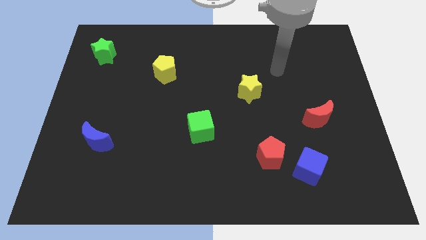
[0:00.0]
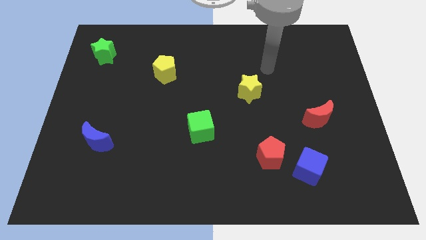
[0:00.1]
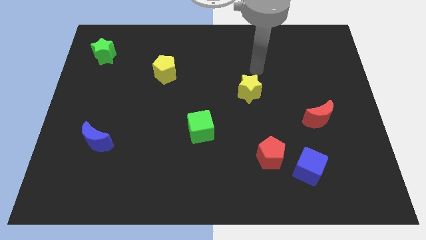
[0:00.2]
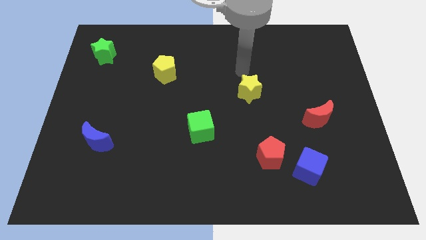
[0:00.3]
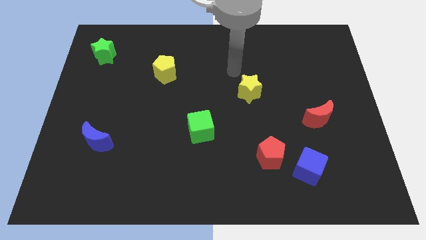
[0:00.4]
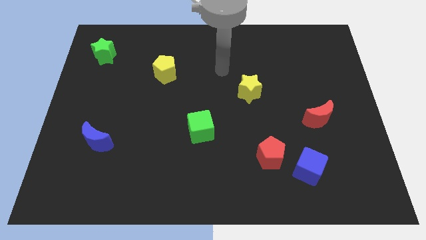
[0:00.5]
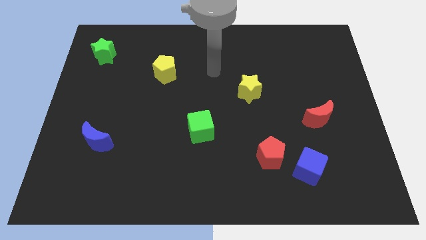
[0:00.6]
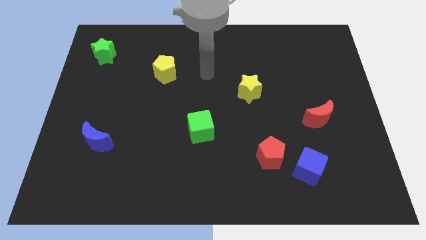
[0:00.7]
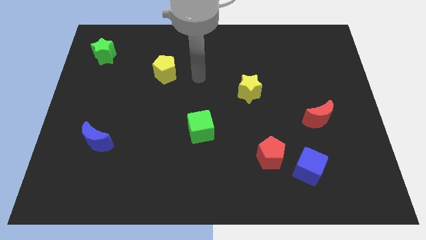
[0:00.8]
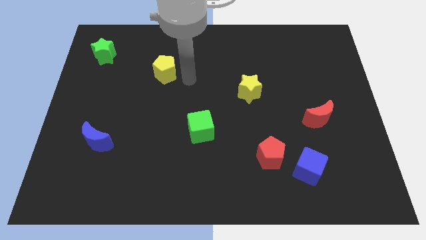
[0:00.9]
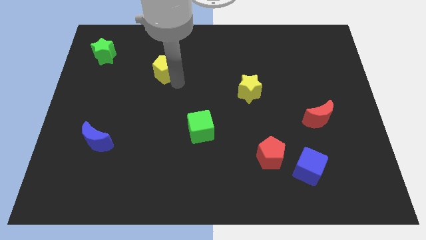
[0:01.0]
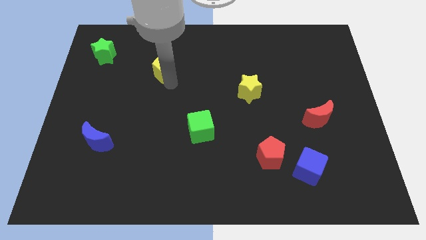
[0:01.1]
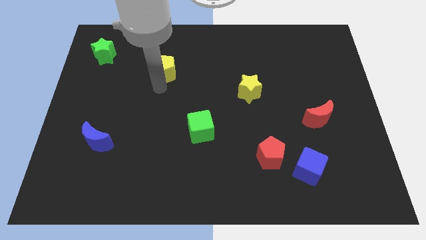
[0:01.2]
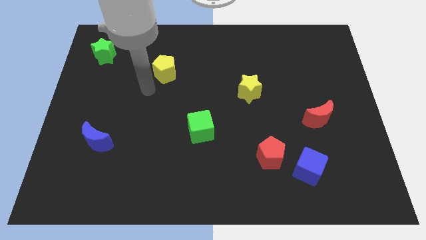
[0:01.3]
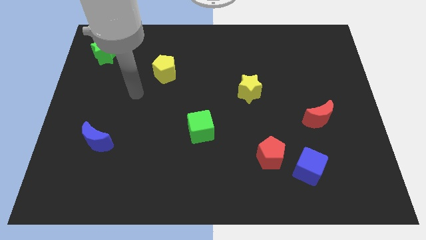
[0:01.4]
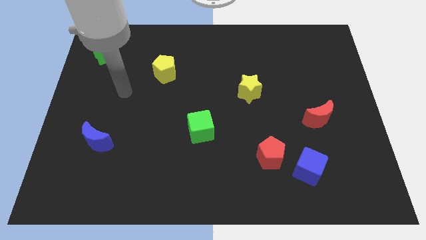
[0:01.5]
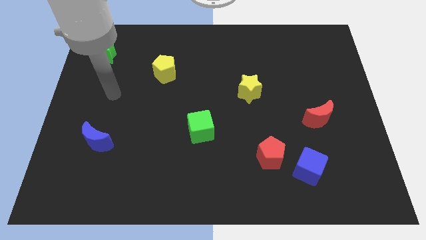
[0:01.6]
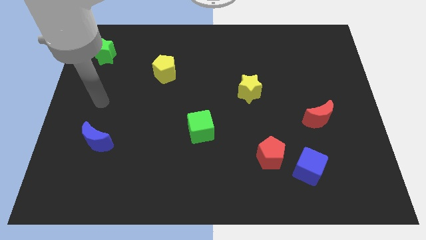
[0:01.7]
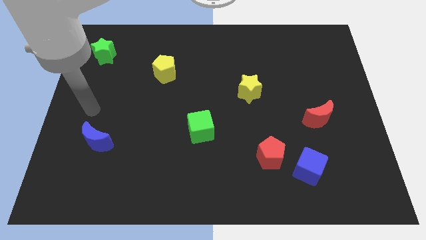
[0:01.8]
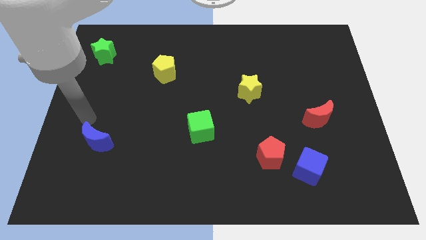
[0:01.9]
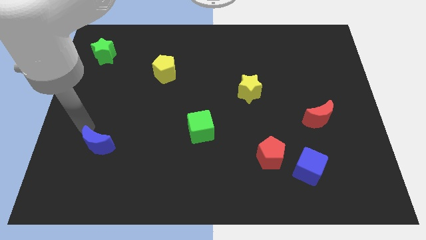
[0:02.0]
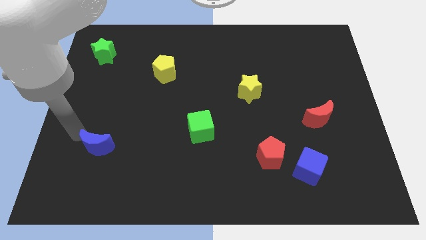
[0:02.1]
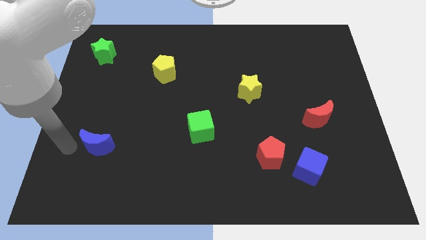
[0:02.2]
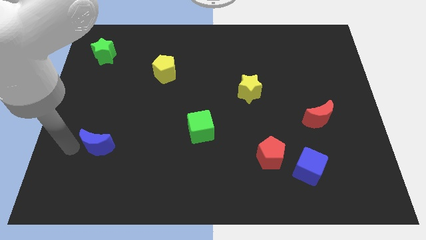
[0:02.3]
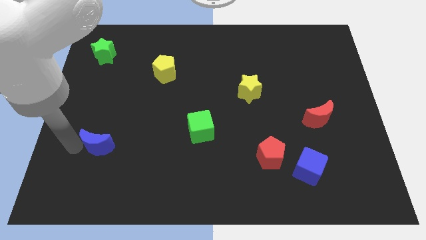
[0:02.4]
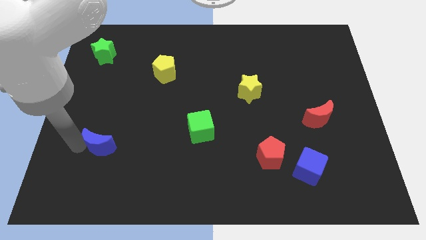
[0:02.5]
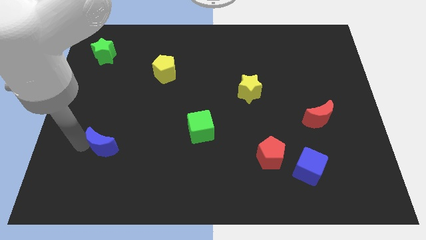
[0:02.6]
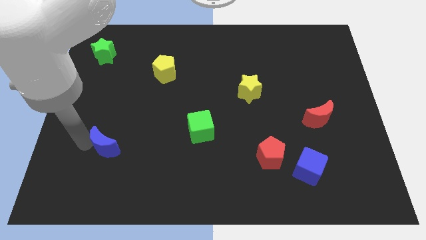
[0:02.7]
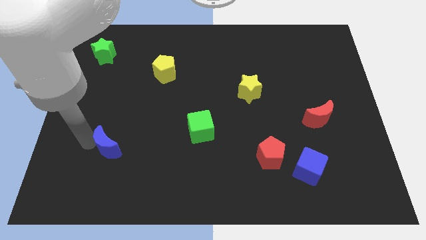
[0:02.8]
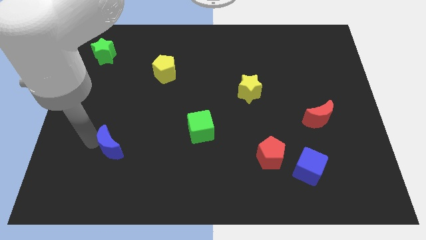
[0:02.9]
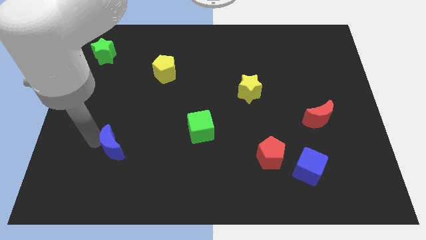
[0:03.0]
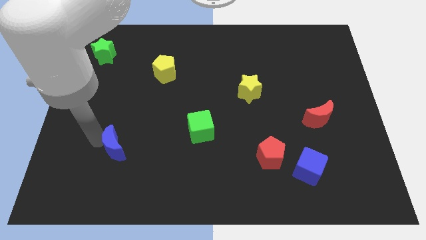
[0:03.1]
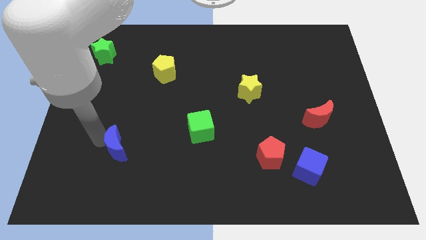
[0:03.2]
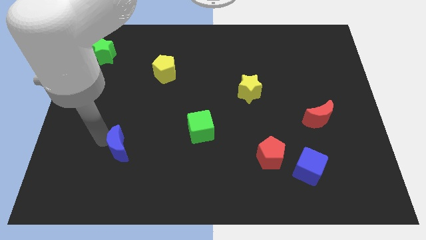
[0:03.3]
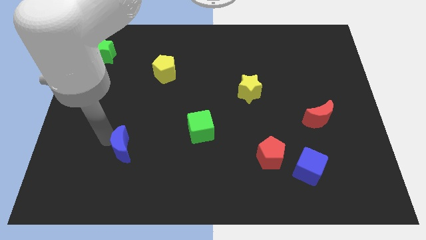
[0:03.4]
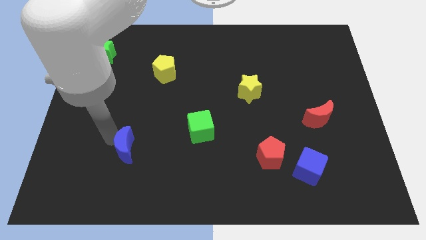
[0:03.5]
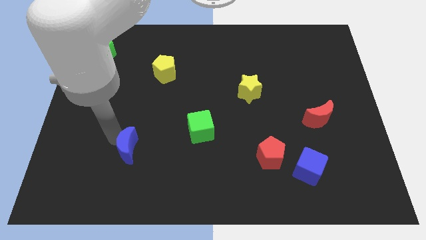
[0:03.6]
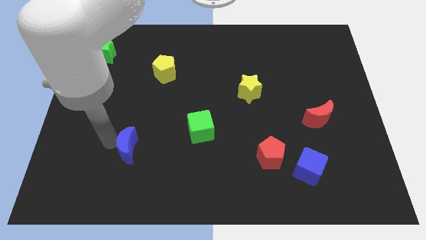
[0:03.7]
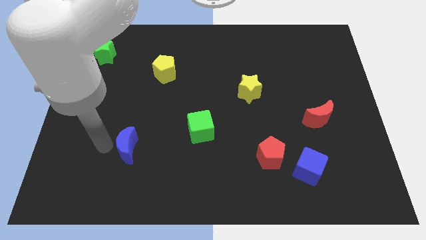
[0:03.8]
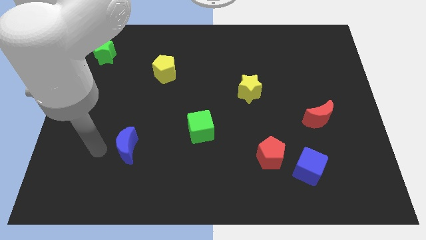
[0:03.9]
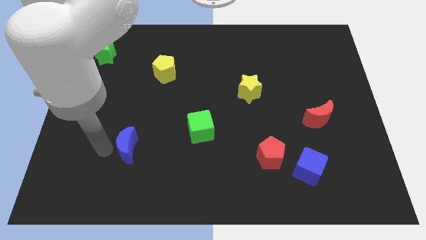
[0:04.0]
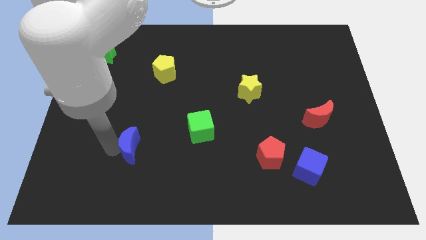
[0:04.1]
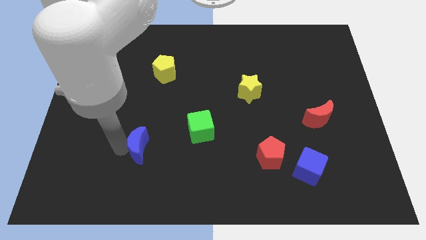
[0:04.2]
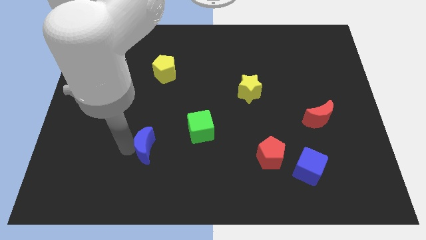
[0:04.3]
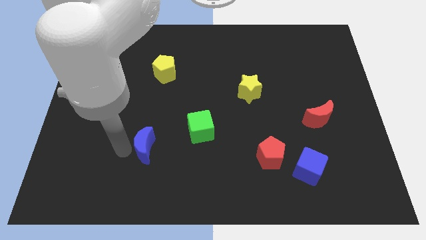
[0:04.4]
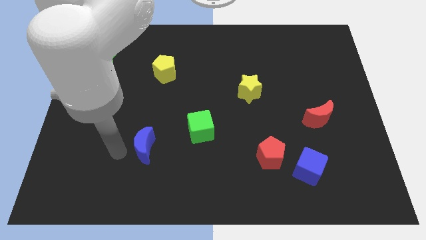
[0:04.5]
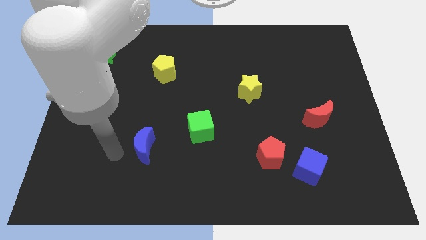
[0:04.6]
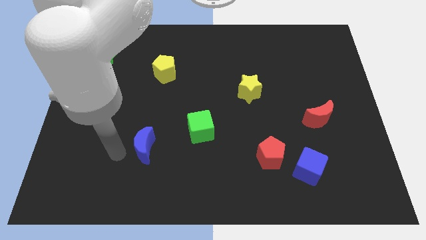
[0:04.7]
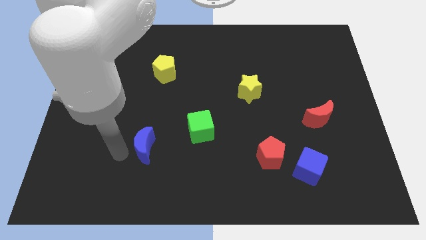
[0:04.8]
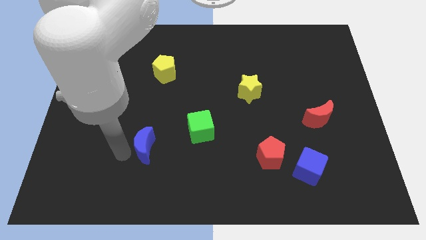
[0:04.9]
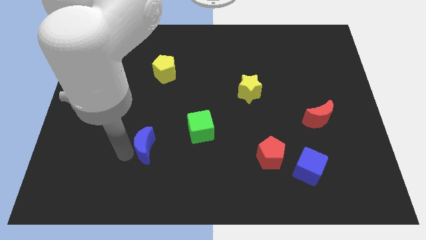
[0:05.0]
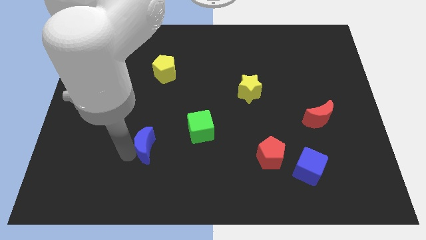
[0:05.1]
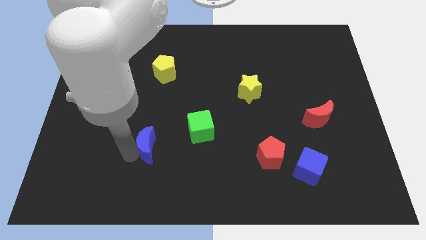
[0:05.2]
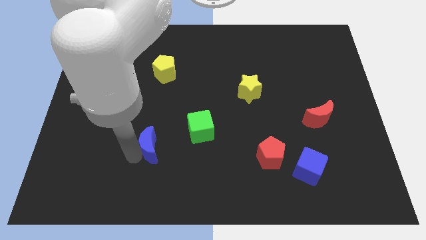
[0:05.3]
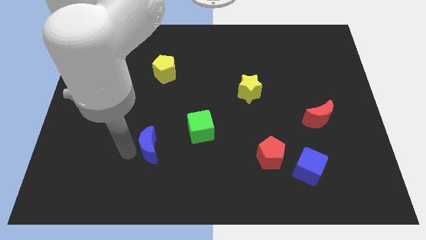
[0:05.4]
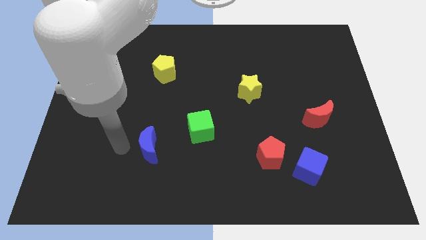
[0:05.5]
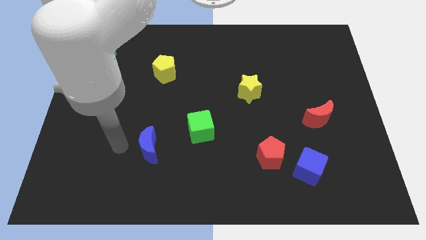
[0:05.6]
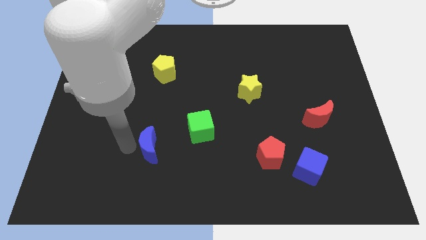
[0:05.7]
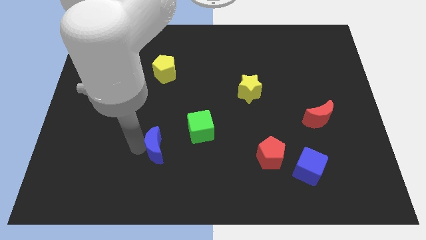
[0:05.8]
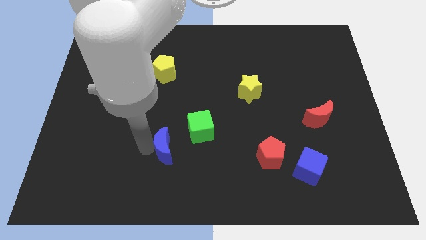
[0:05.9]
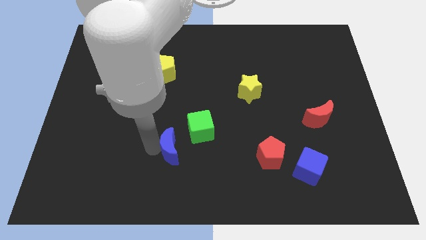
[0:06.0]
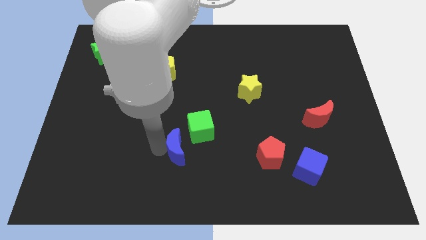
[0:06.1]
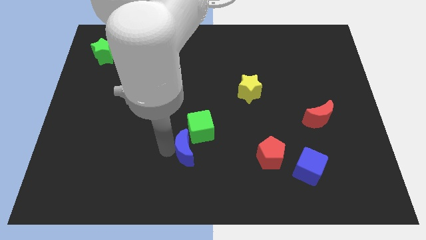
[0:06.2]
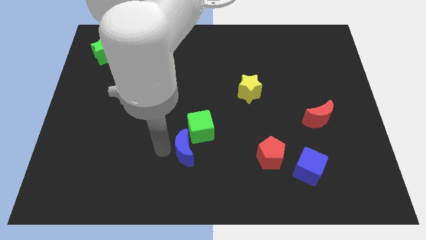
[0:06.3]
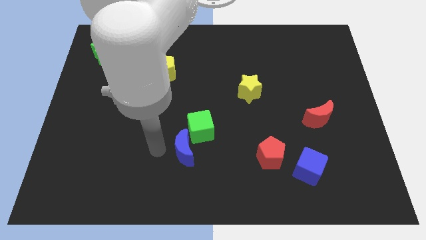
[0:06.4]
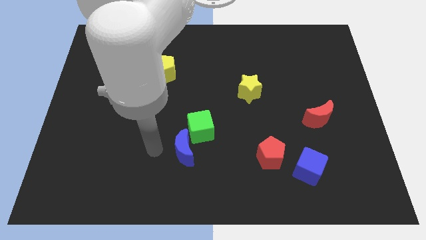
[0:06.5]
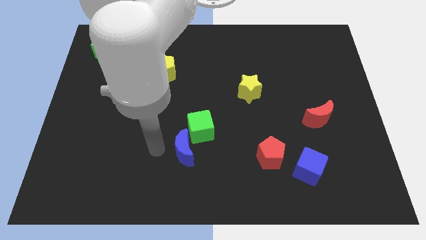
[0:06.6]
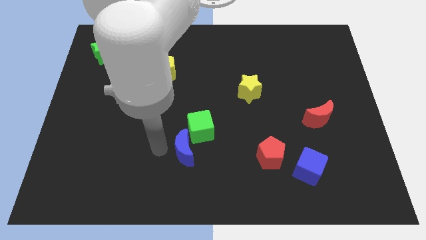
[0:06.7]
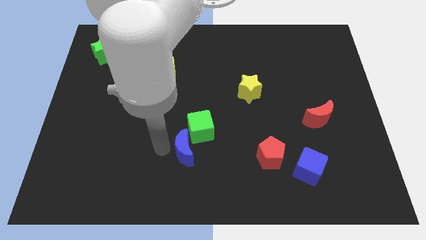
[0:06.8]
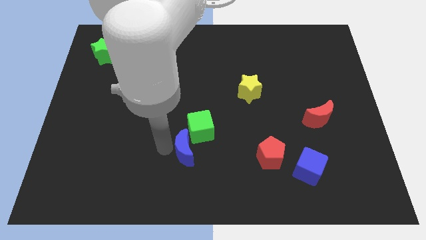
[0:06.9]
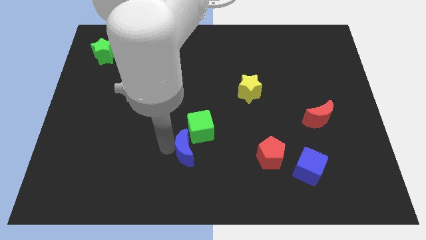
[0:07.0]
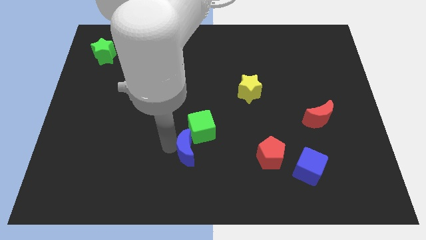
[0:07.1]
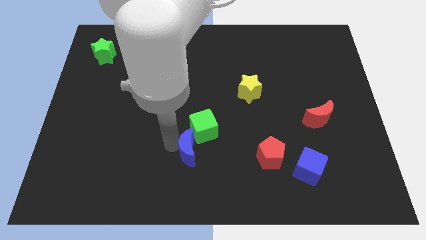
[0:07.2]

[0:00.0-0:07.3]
move the blue moon right

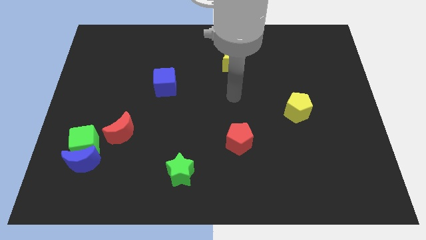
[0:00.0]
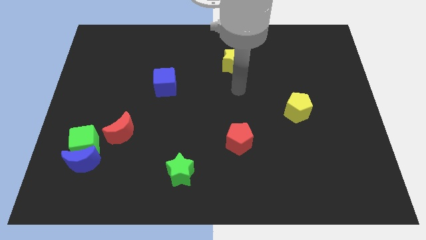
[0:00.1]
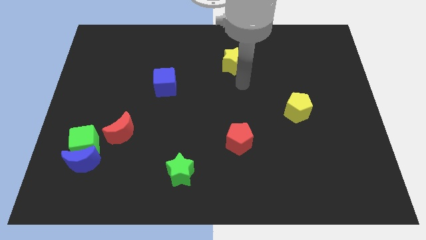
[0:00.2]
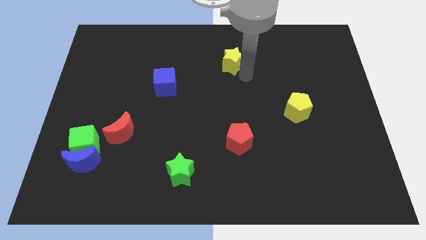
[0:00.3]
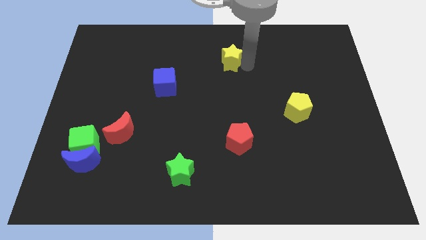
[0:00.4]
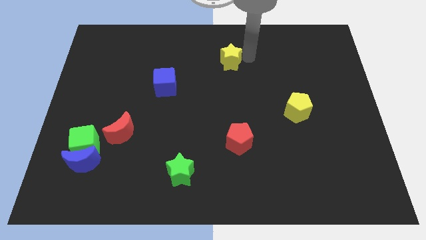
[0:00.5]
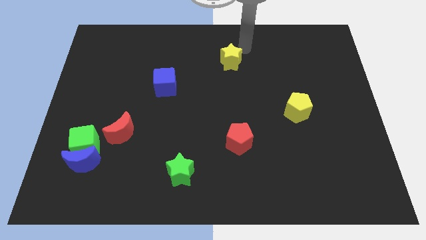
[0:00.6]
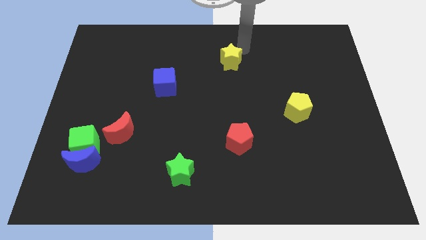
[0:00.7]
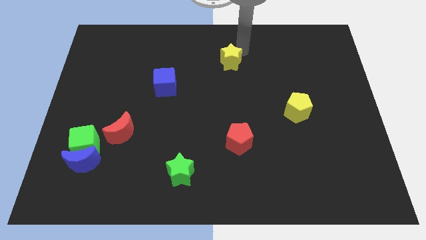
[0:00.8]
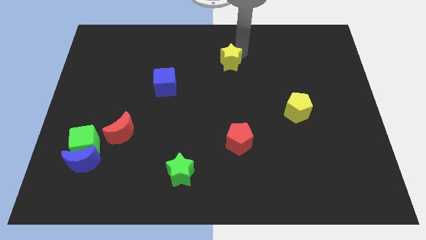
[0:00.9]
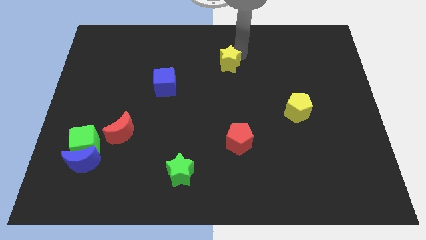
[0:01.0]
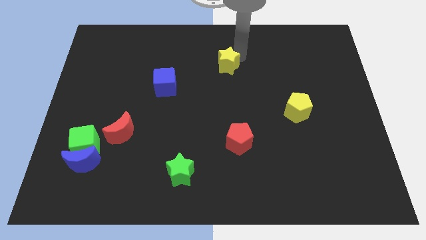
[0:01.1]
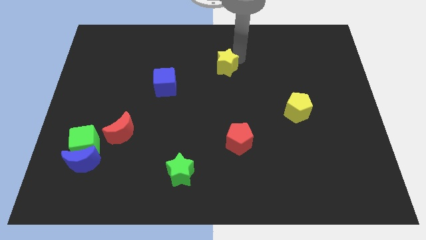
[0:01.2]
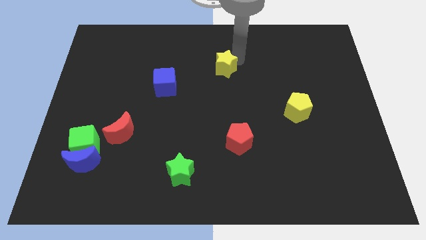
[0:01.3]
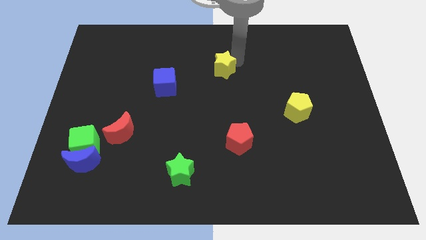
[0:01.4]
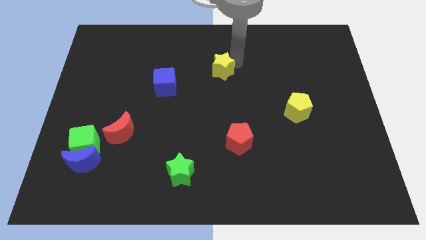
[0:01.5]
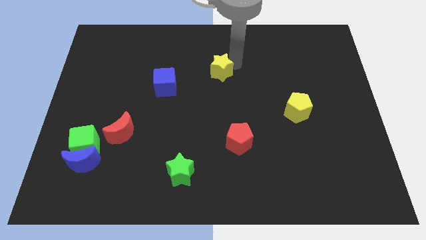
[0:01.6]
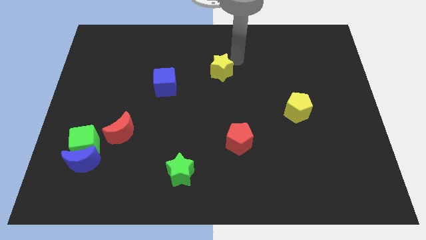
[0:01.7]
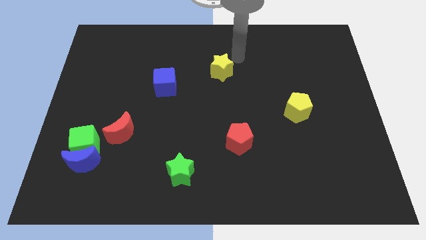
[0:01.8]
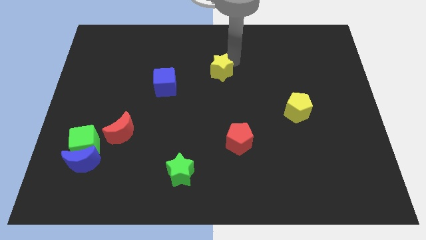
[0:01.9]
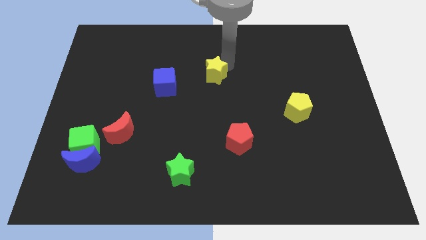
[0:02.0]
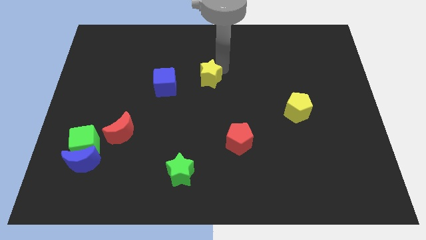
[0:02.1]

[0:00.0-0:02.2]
slightly push the yellow star diagonally down and left
